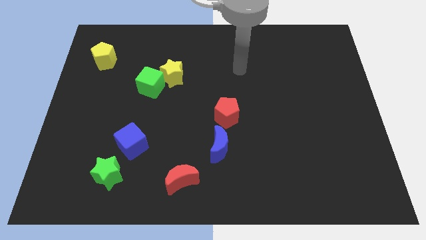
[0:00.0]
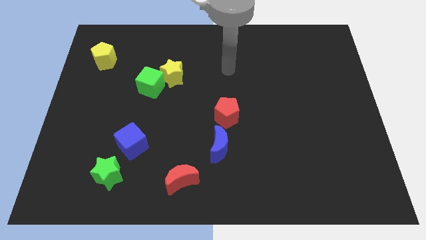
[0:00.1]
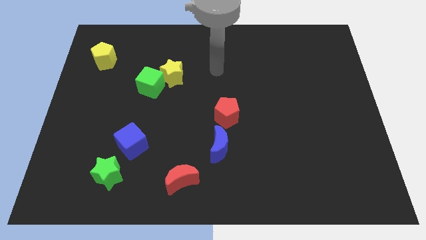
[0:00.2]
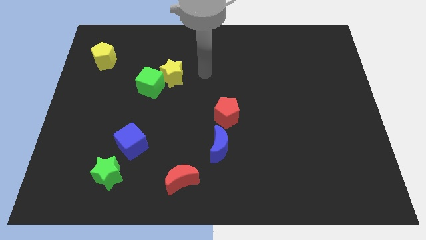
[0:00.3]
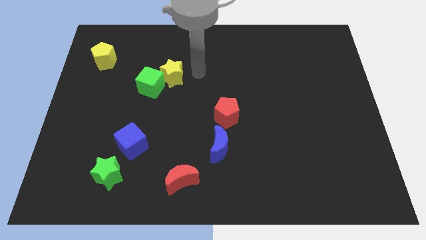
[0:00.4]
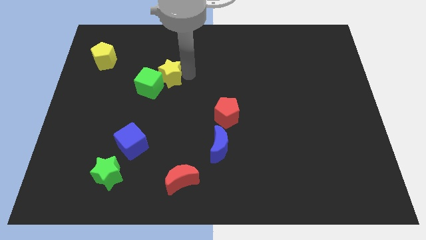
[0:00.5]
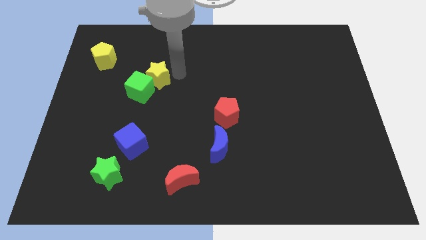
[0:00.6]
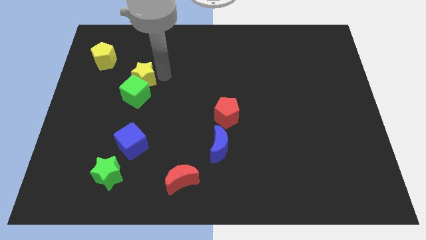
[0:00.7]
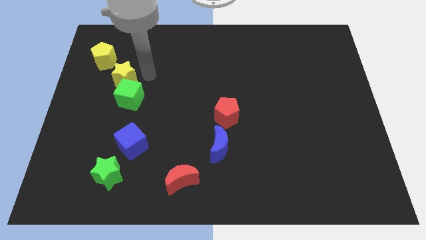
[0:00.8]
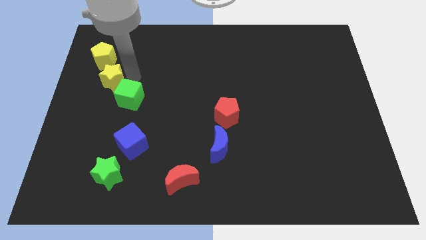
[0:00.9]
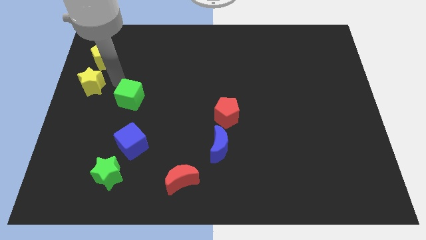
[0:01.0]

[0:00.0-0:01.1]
move the green cube away from the yellow star

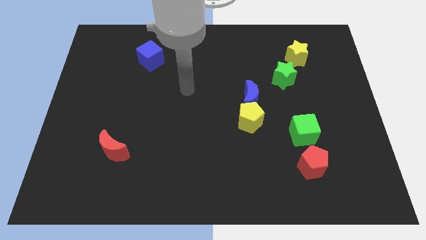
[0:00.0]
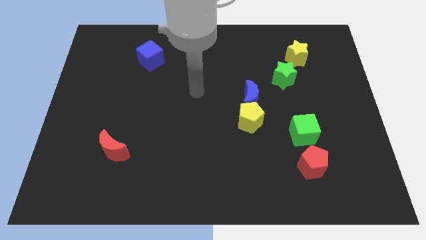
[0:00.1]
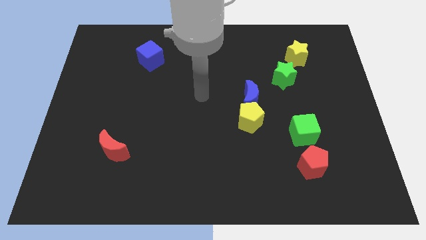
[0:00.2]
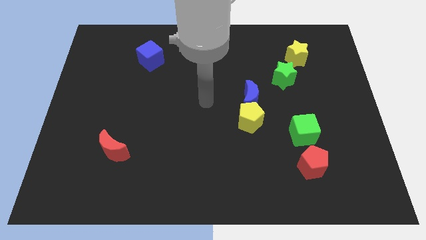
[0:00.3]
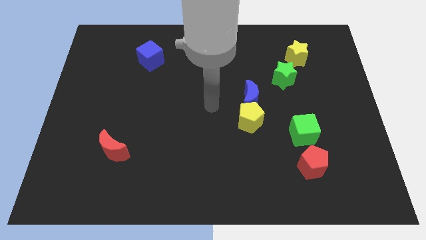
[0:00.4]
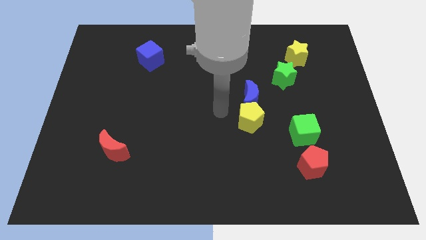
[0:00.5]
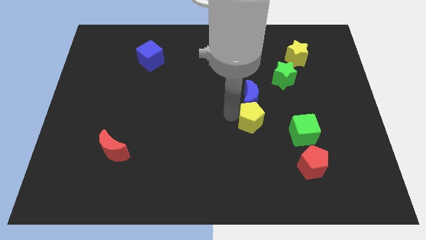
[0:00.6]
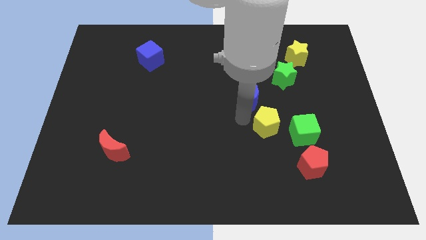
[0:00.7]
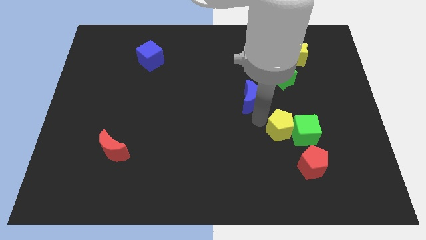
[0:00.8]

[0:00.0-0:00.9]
move the blue moon away from the yellow pentagon

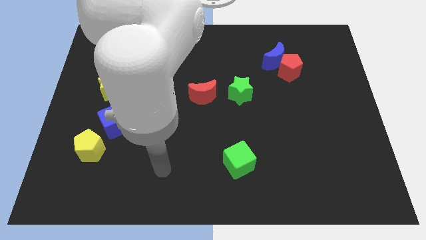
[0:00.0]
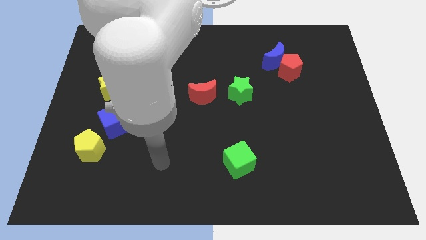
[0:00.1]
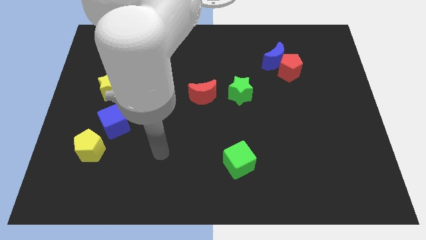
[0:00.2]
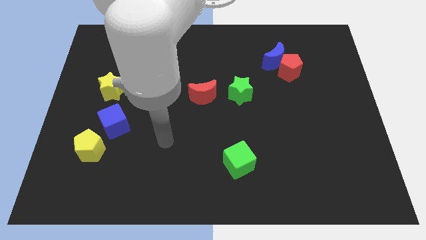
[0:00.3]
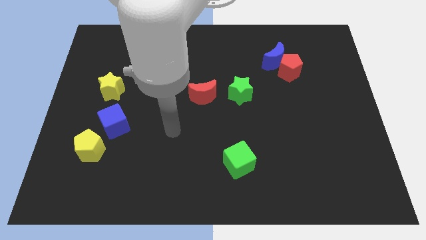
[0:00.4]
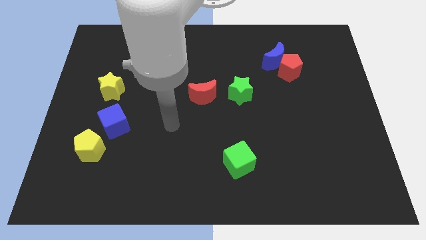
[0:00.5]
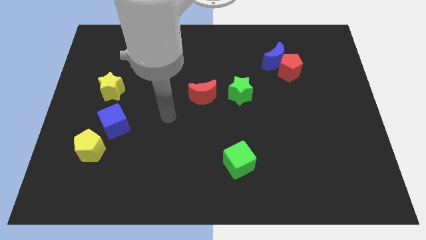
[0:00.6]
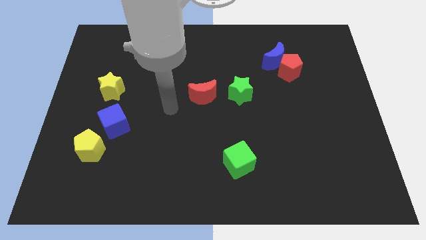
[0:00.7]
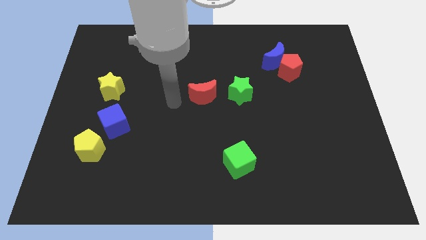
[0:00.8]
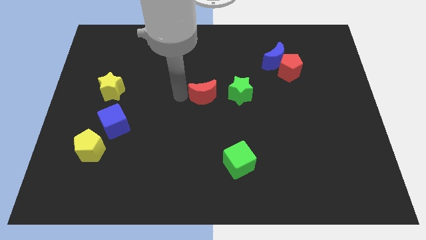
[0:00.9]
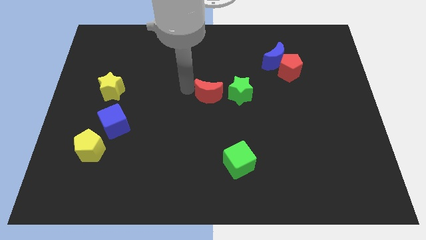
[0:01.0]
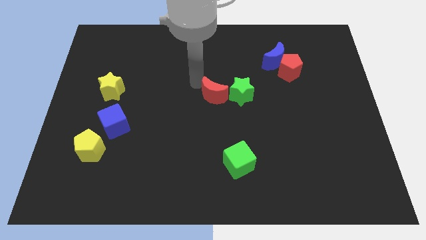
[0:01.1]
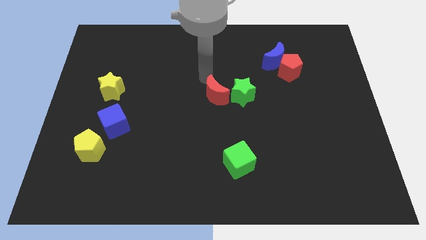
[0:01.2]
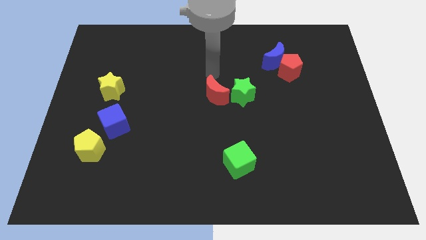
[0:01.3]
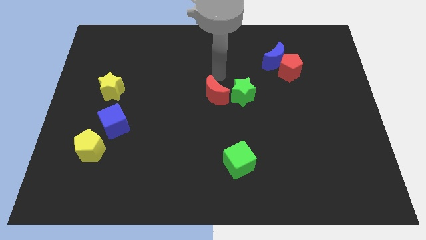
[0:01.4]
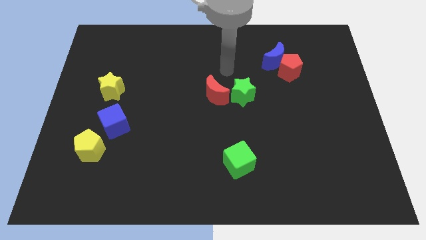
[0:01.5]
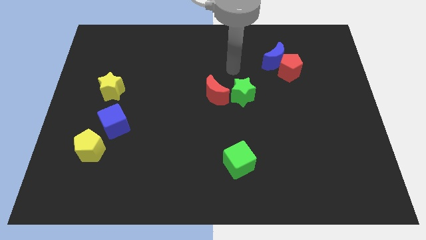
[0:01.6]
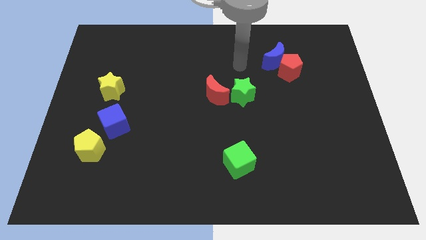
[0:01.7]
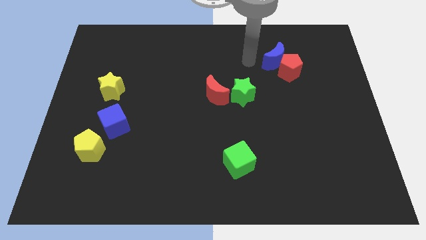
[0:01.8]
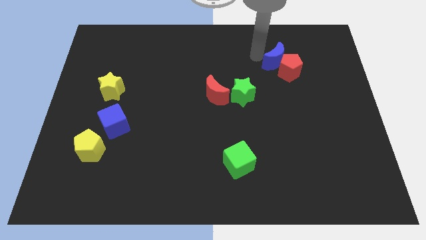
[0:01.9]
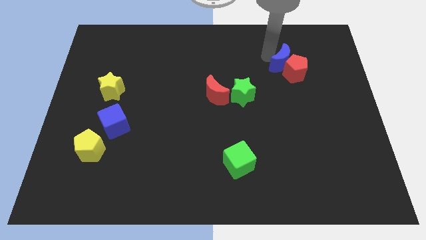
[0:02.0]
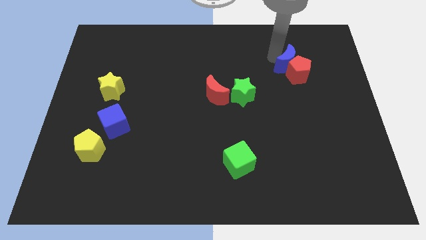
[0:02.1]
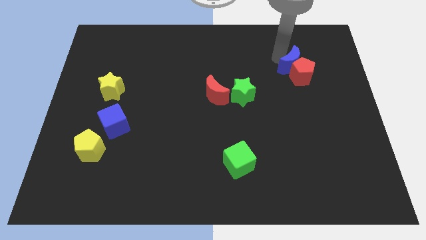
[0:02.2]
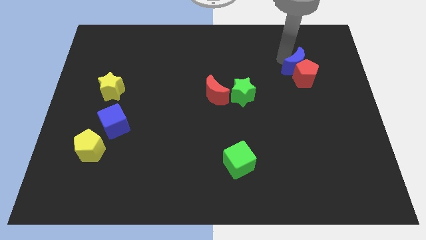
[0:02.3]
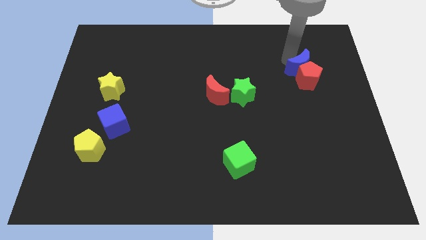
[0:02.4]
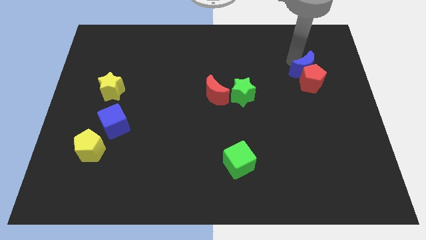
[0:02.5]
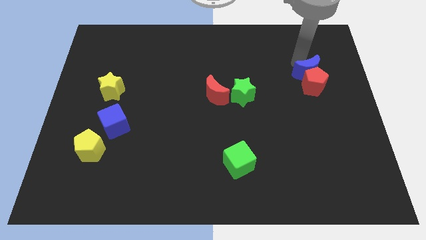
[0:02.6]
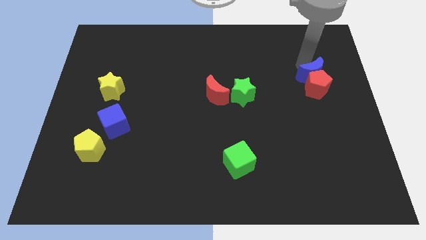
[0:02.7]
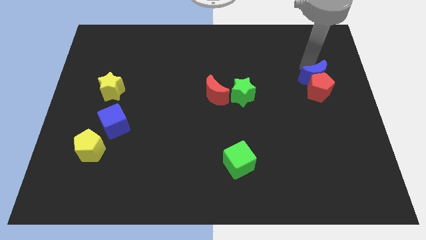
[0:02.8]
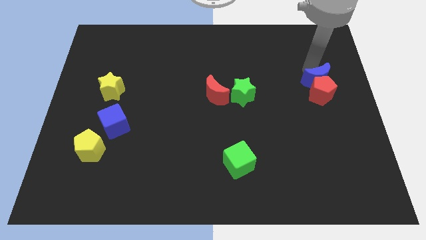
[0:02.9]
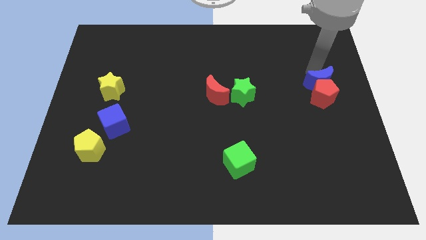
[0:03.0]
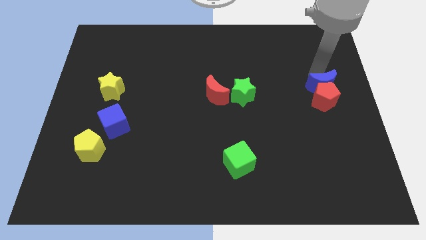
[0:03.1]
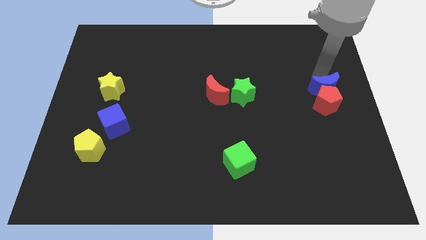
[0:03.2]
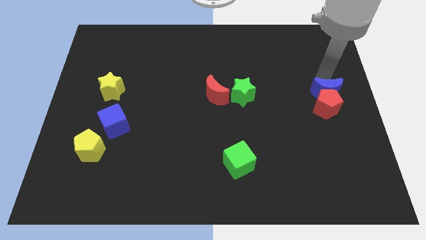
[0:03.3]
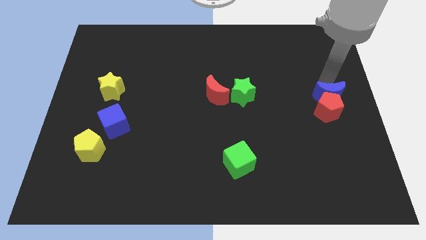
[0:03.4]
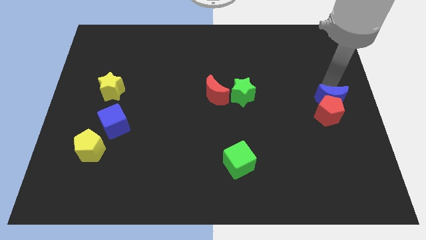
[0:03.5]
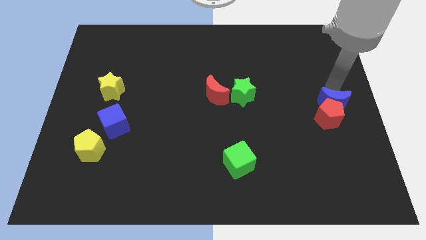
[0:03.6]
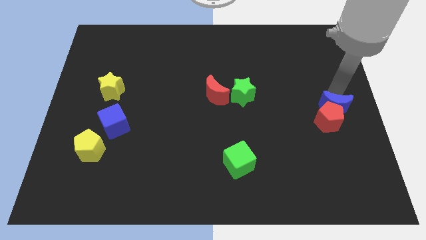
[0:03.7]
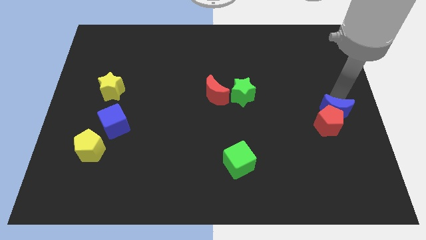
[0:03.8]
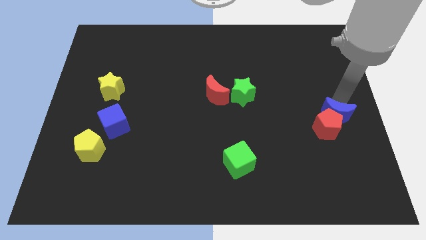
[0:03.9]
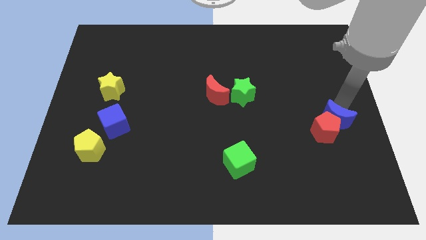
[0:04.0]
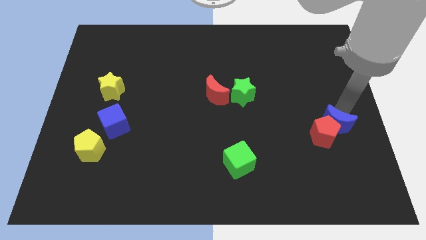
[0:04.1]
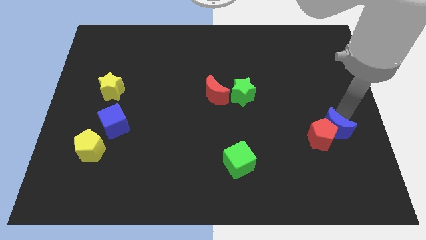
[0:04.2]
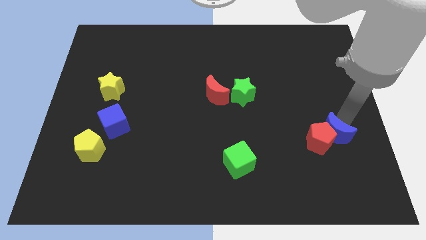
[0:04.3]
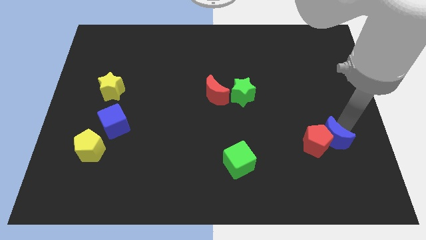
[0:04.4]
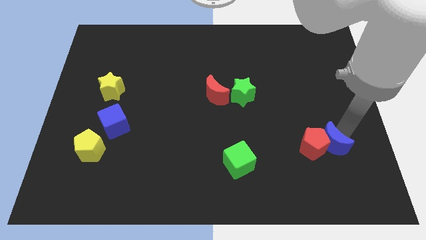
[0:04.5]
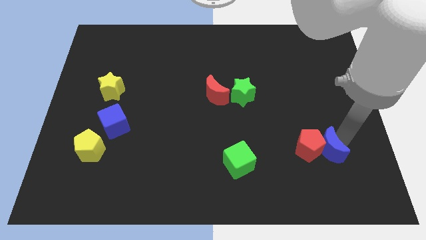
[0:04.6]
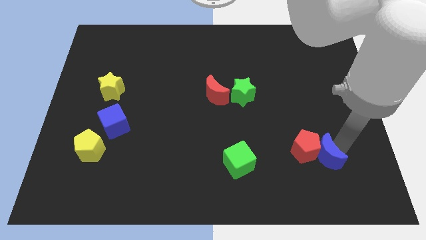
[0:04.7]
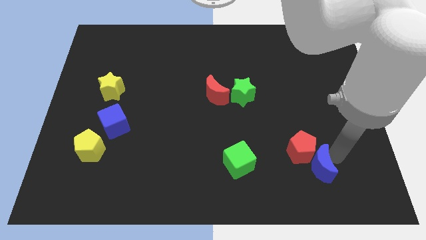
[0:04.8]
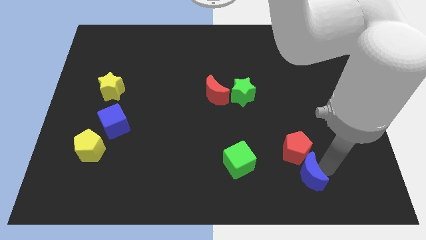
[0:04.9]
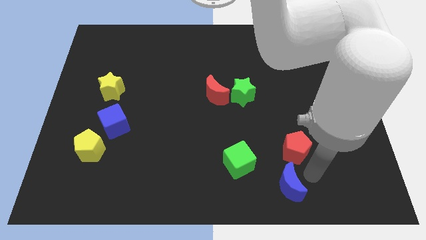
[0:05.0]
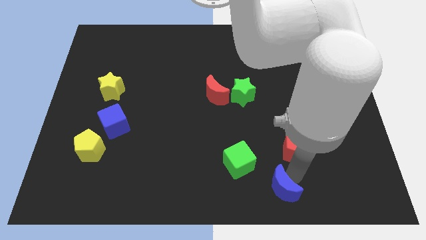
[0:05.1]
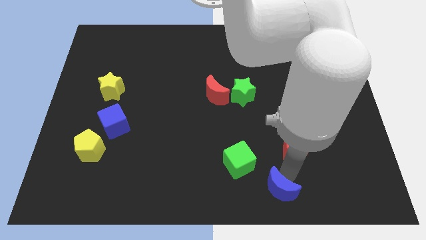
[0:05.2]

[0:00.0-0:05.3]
separate the red pentagon from the blue moon

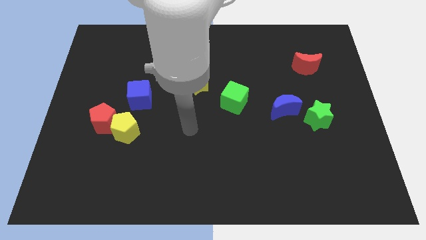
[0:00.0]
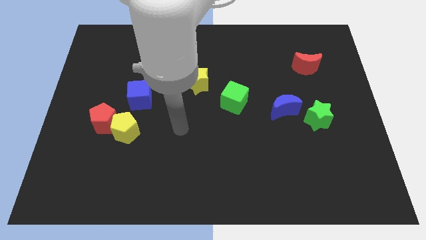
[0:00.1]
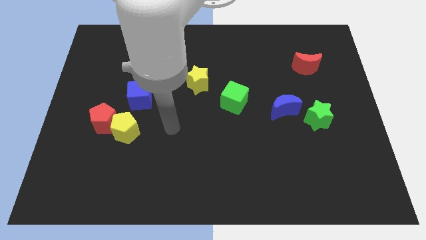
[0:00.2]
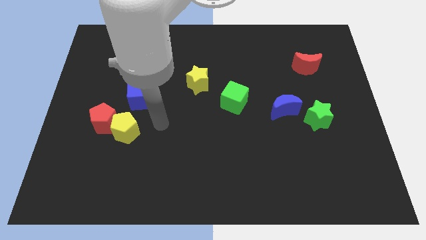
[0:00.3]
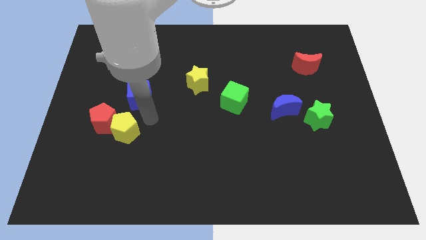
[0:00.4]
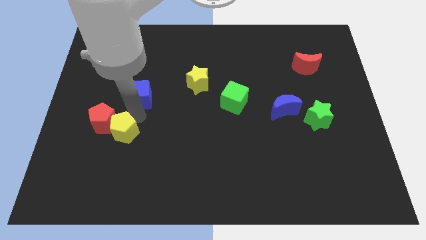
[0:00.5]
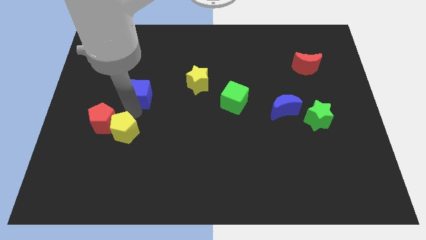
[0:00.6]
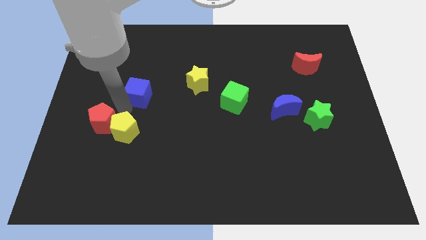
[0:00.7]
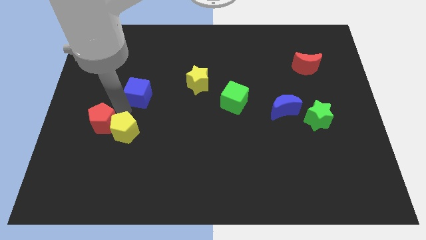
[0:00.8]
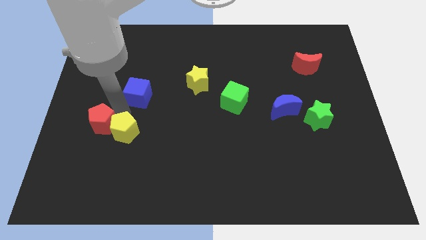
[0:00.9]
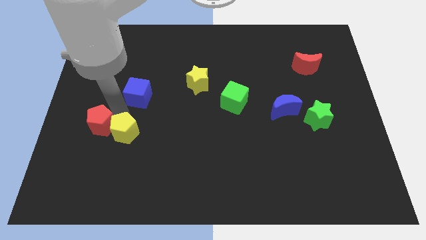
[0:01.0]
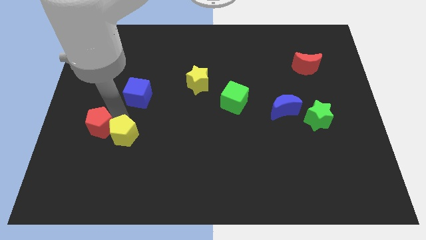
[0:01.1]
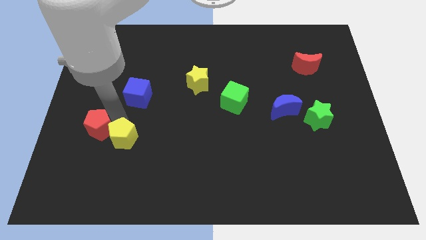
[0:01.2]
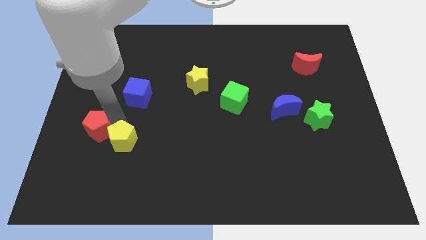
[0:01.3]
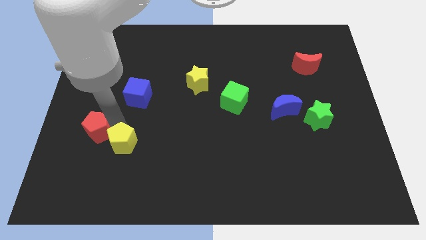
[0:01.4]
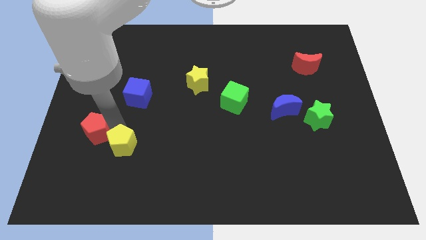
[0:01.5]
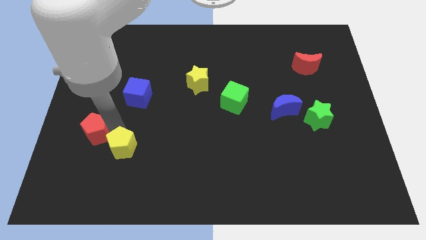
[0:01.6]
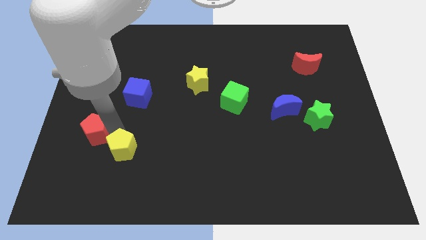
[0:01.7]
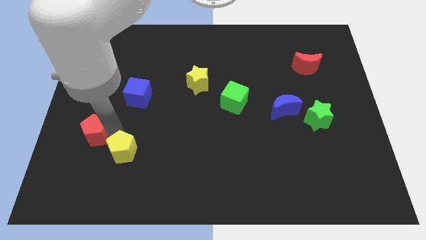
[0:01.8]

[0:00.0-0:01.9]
pull the yellow pentagon apart from the red pentagon and blue cube
